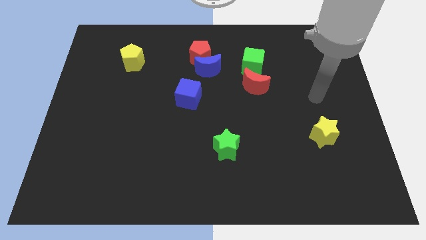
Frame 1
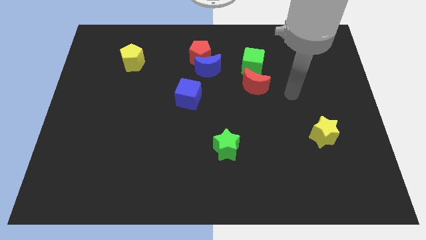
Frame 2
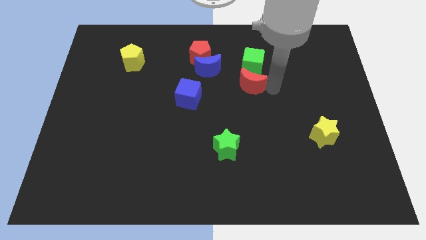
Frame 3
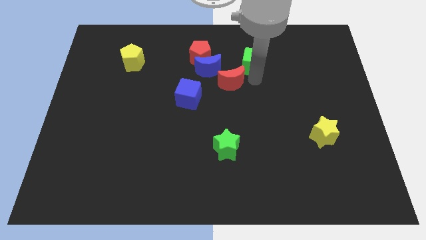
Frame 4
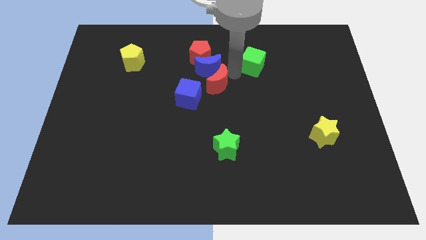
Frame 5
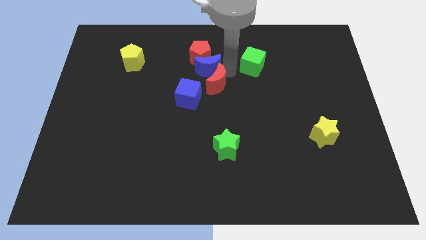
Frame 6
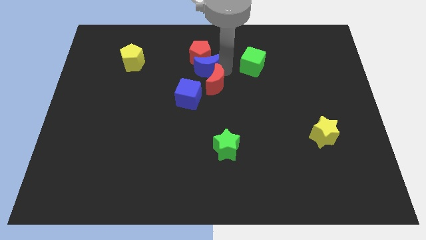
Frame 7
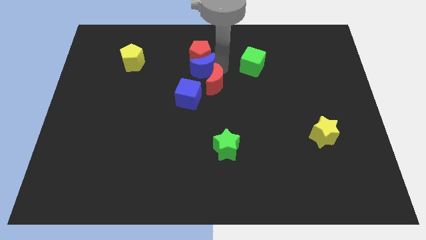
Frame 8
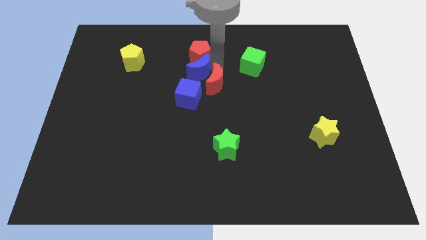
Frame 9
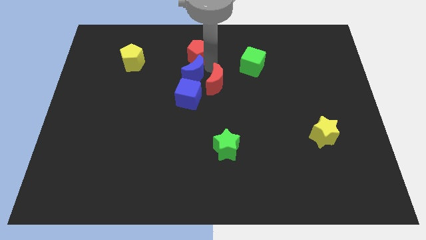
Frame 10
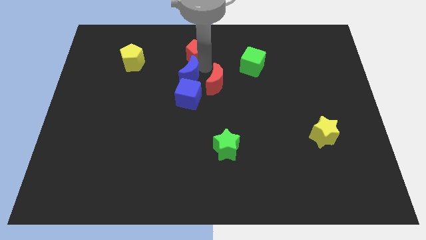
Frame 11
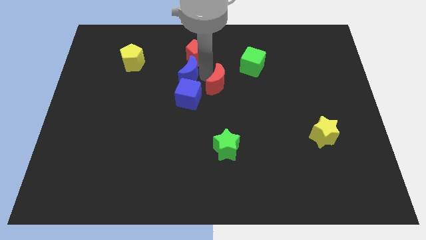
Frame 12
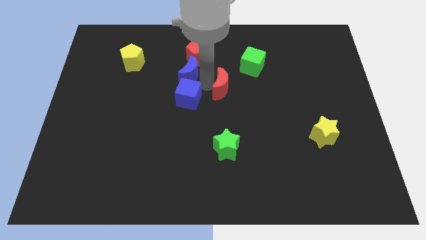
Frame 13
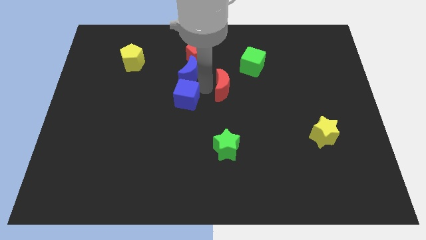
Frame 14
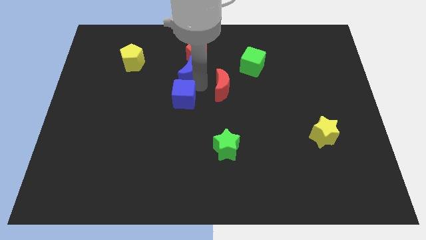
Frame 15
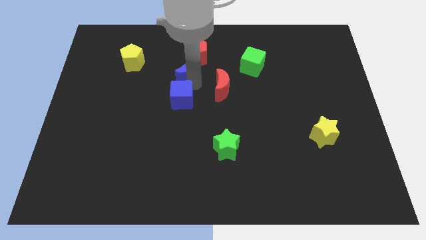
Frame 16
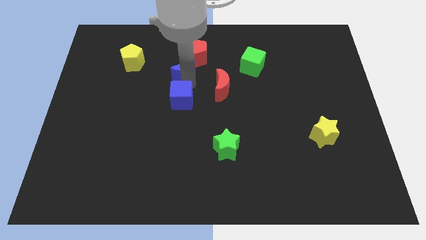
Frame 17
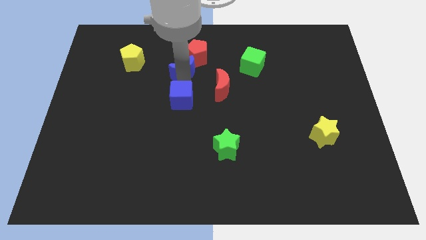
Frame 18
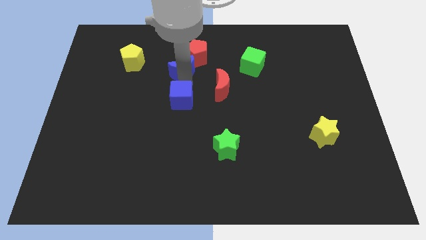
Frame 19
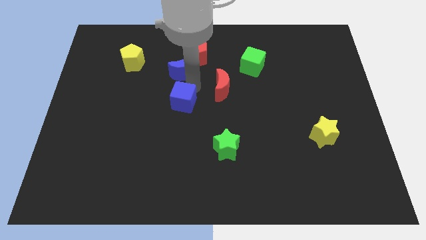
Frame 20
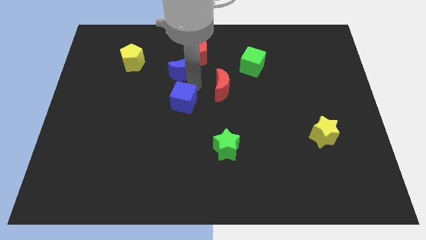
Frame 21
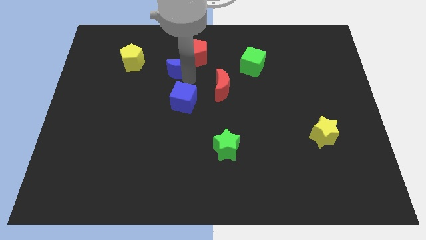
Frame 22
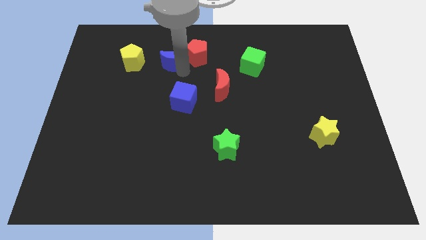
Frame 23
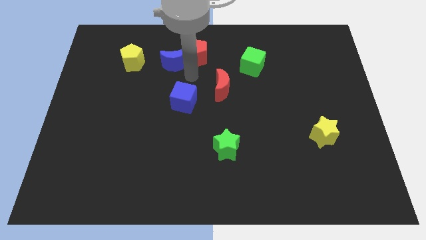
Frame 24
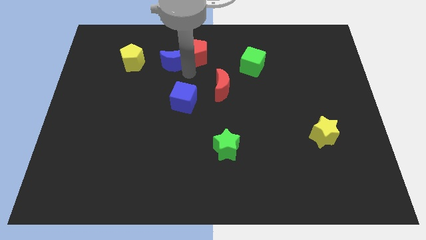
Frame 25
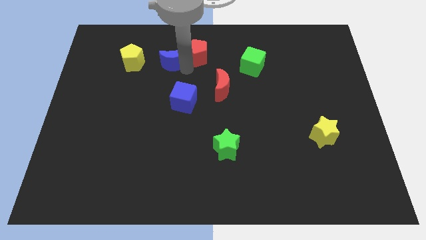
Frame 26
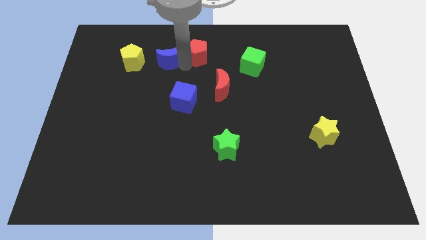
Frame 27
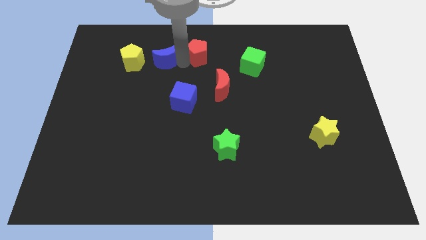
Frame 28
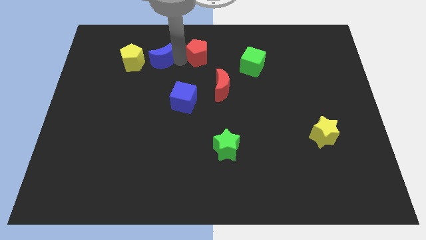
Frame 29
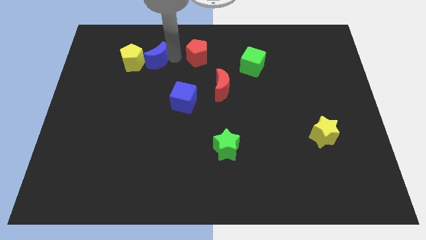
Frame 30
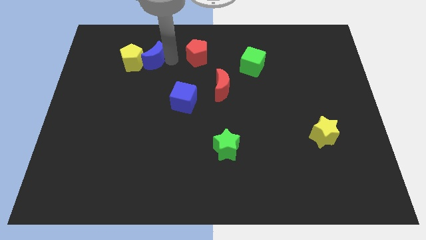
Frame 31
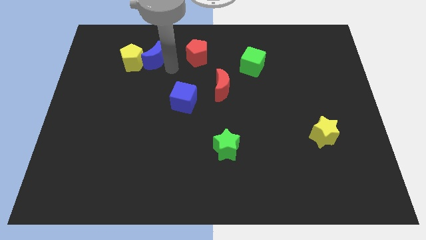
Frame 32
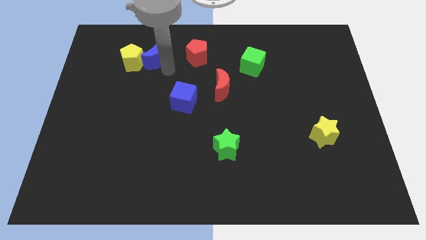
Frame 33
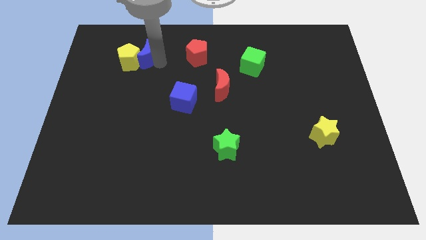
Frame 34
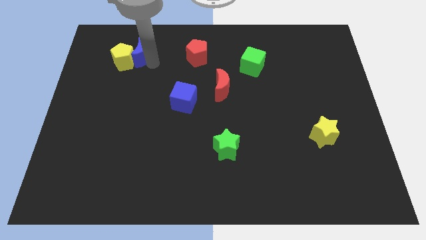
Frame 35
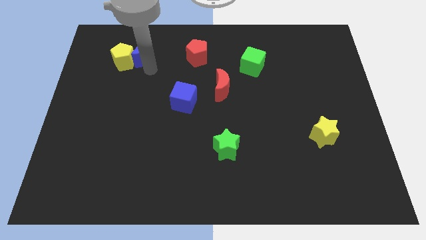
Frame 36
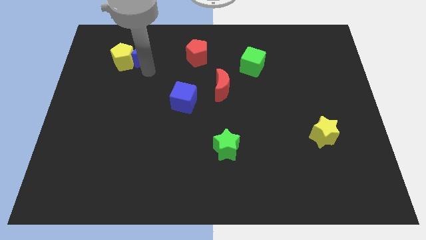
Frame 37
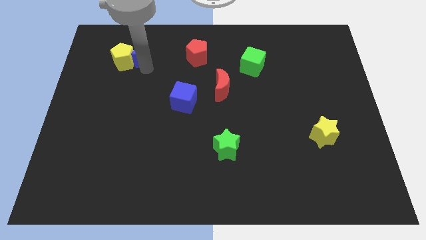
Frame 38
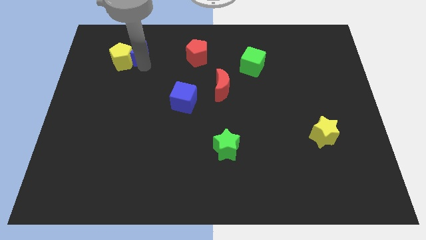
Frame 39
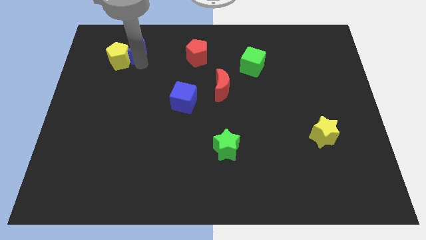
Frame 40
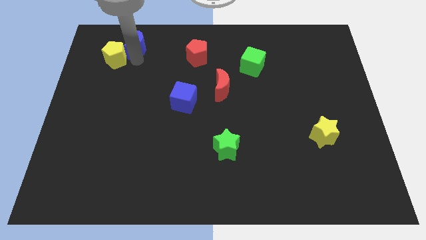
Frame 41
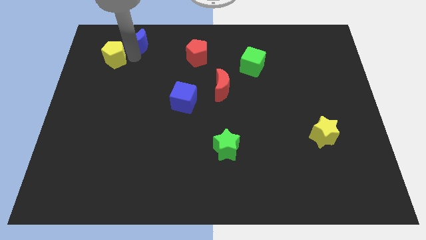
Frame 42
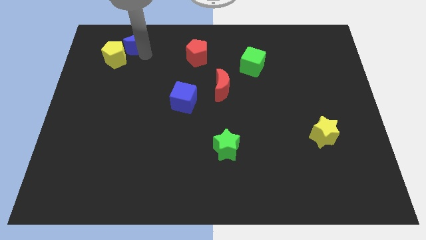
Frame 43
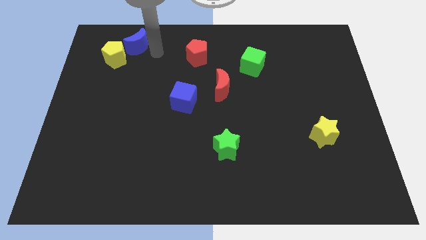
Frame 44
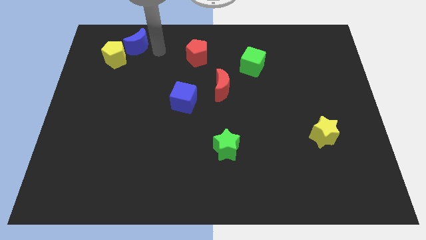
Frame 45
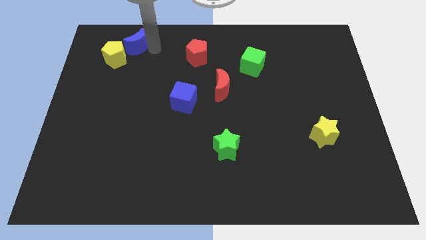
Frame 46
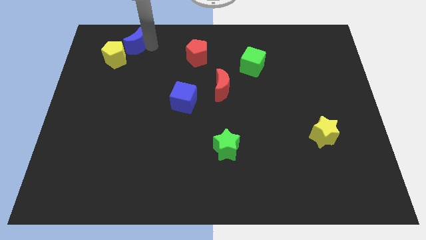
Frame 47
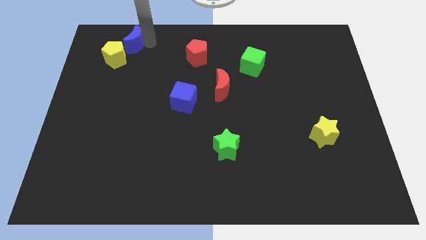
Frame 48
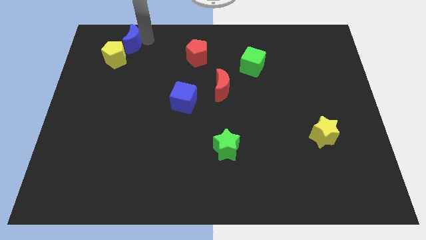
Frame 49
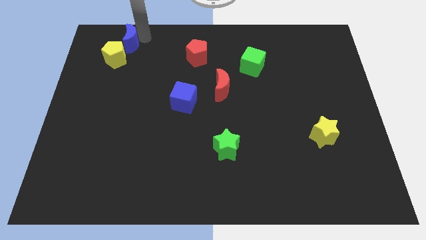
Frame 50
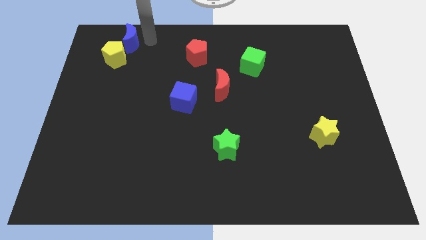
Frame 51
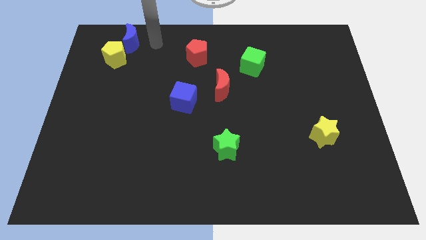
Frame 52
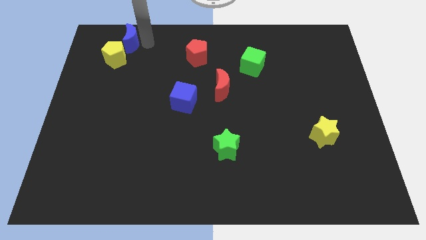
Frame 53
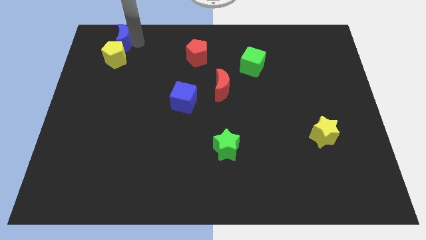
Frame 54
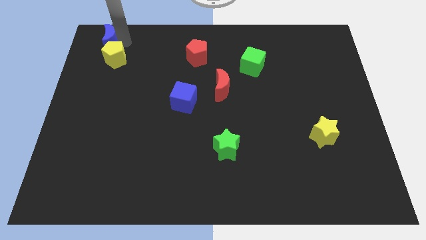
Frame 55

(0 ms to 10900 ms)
move the blue moon to the top left

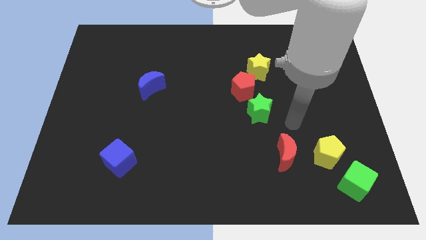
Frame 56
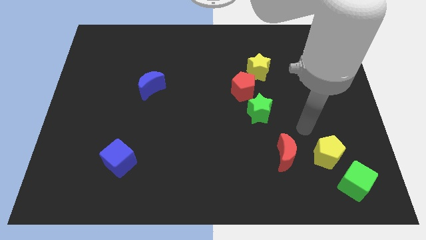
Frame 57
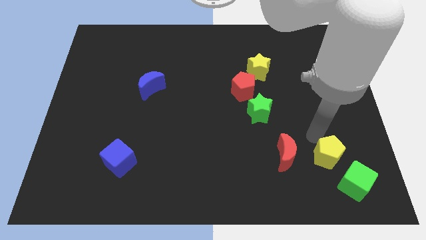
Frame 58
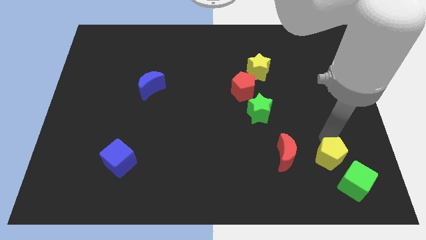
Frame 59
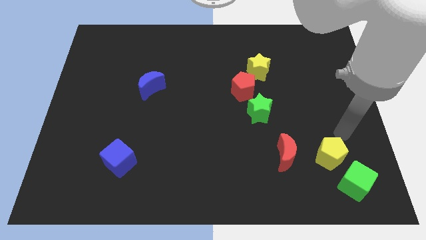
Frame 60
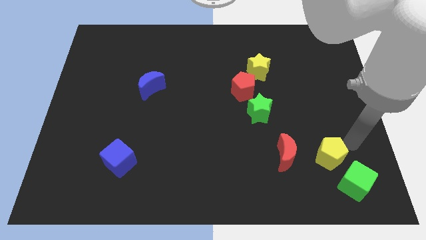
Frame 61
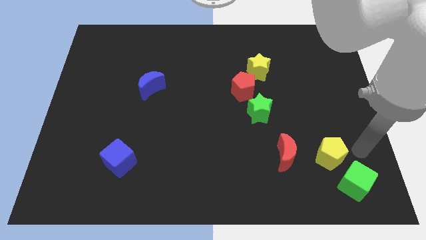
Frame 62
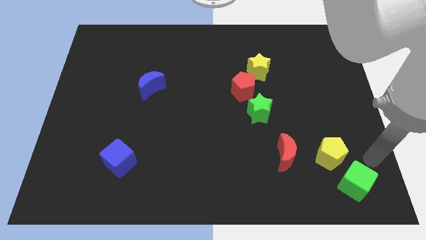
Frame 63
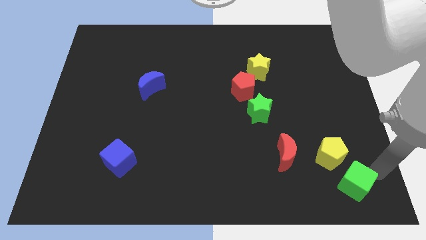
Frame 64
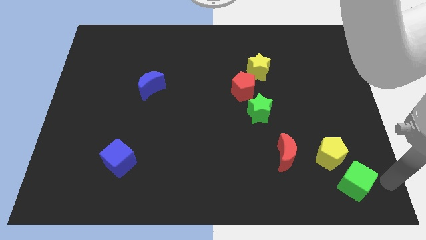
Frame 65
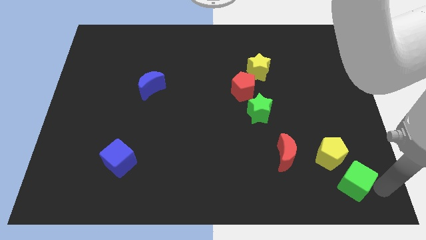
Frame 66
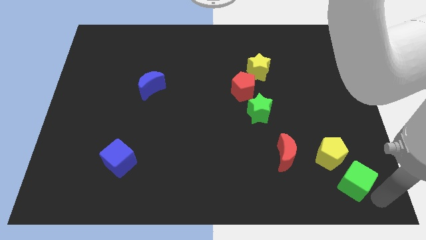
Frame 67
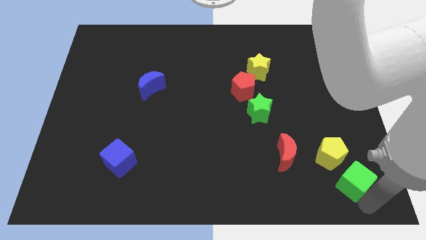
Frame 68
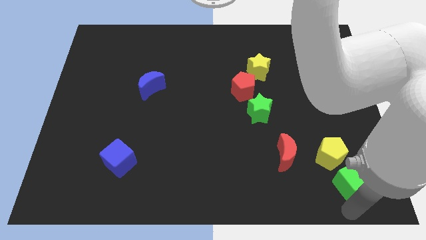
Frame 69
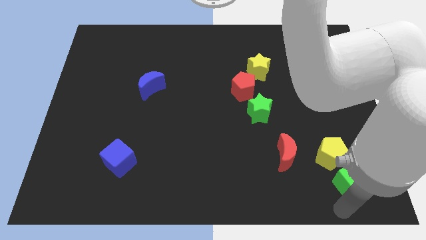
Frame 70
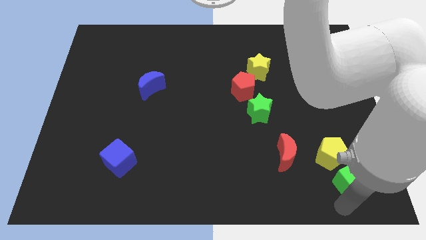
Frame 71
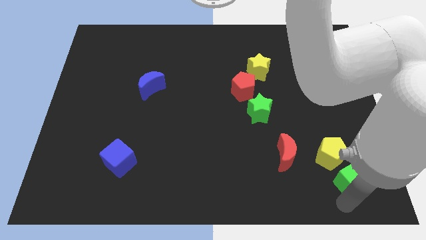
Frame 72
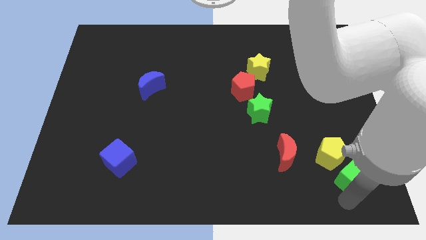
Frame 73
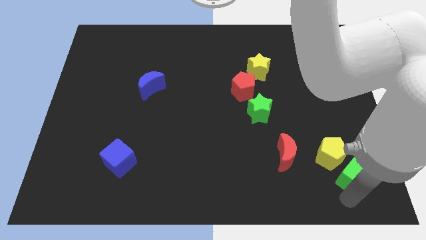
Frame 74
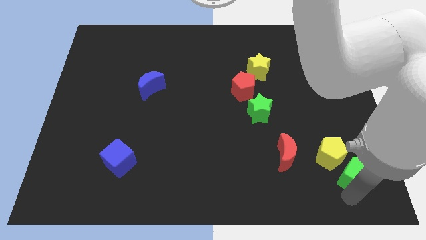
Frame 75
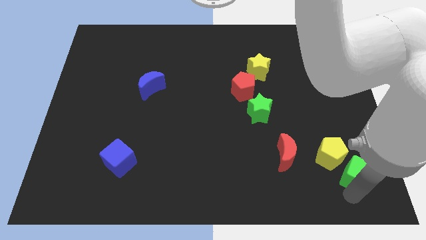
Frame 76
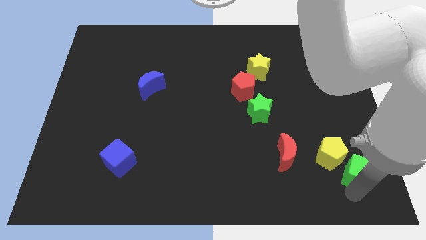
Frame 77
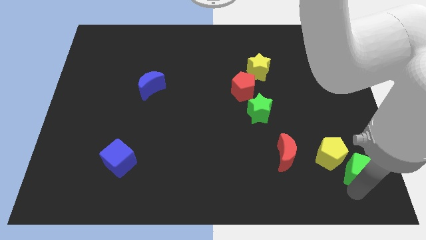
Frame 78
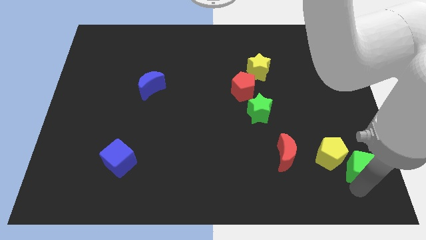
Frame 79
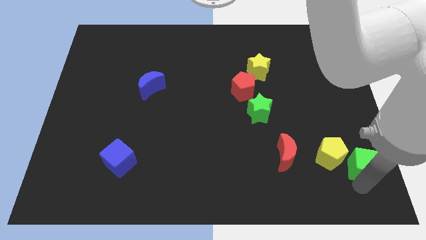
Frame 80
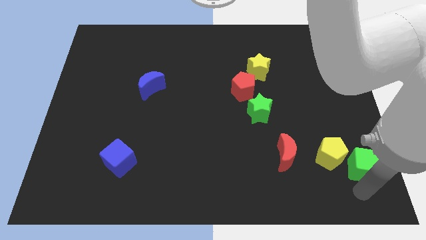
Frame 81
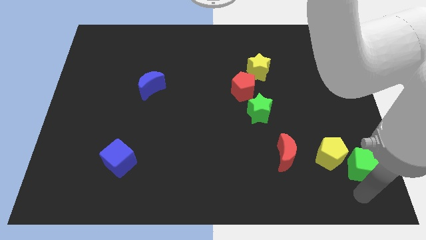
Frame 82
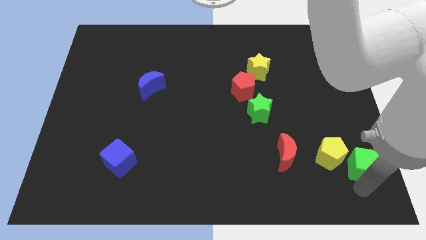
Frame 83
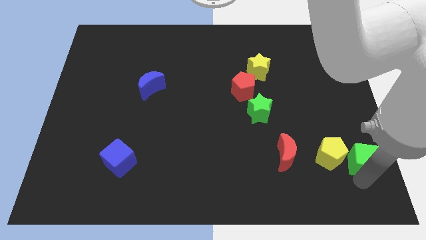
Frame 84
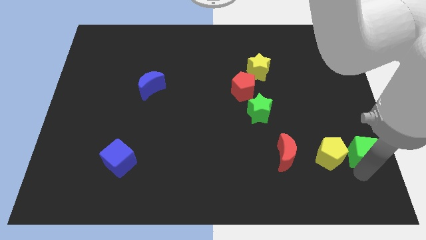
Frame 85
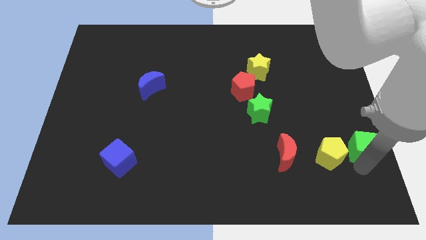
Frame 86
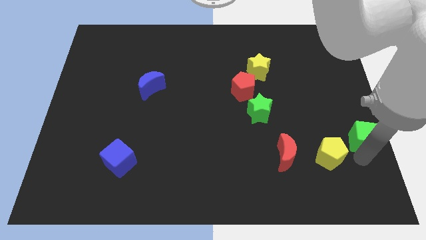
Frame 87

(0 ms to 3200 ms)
put the green cube to the center right
